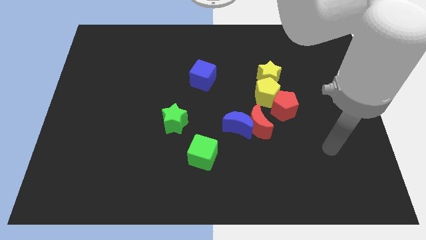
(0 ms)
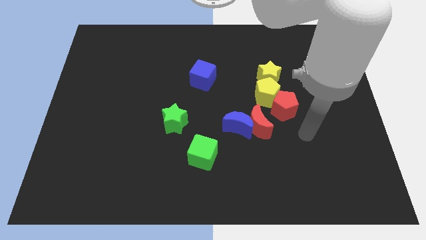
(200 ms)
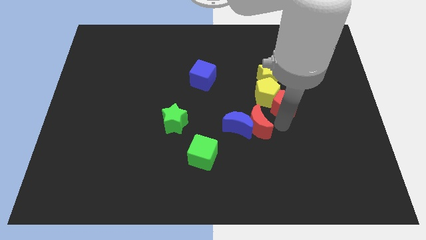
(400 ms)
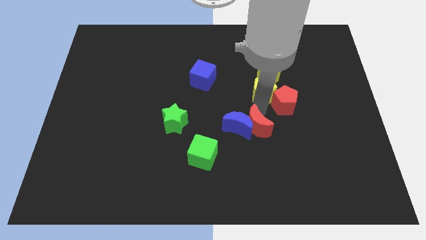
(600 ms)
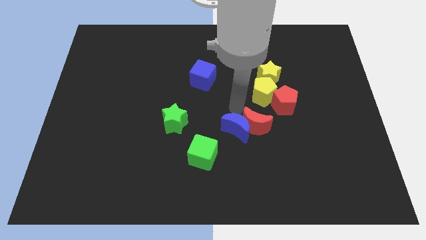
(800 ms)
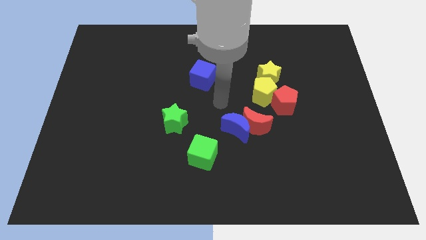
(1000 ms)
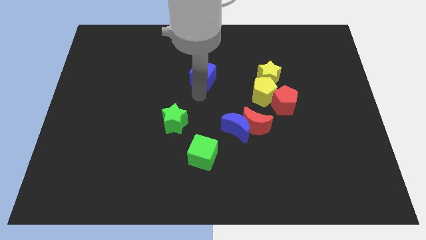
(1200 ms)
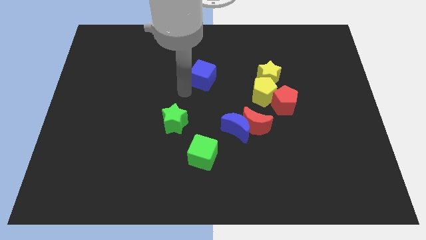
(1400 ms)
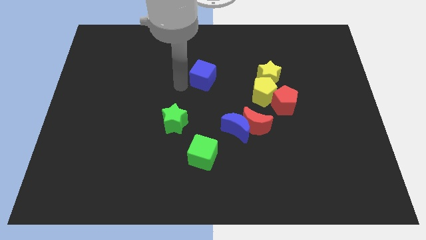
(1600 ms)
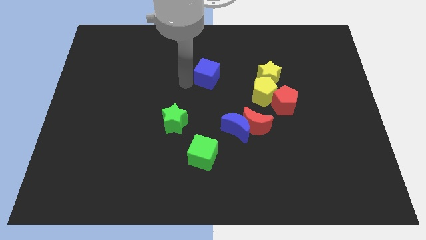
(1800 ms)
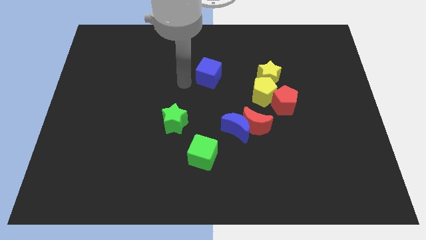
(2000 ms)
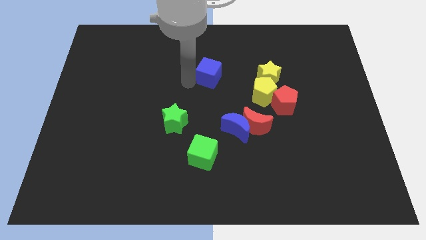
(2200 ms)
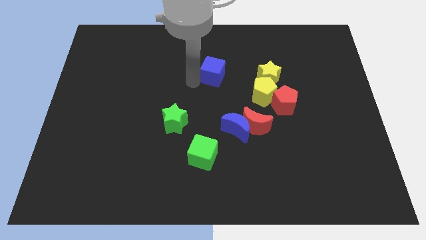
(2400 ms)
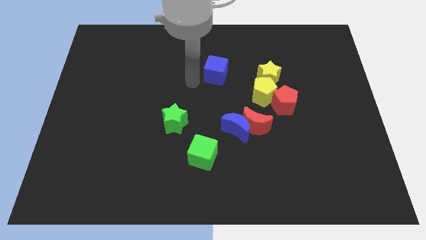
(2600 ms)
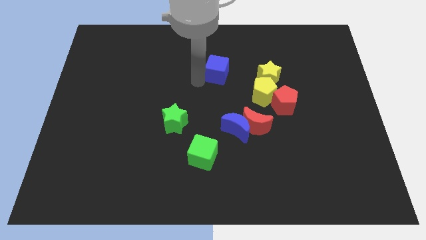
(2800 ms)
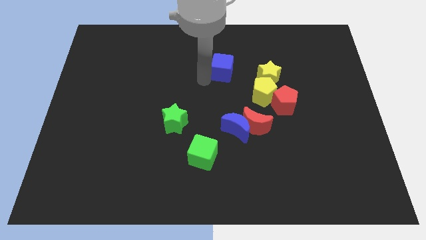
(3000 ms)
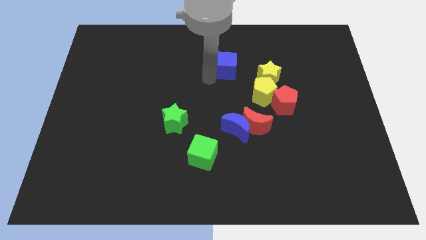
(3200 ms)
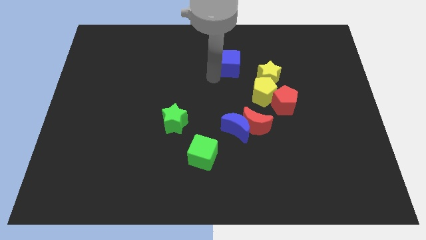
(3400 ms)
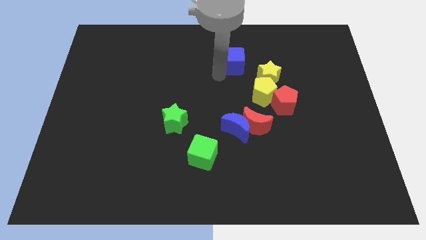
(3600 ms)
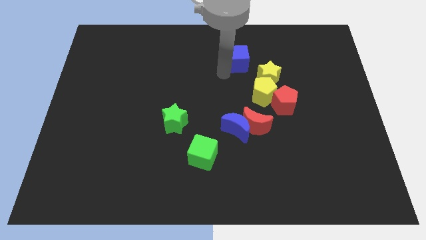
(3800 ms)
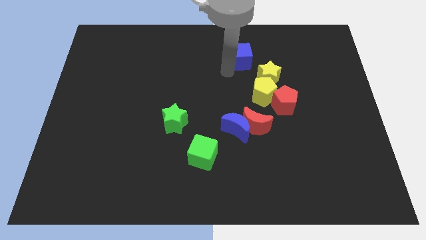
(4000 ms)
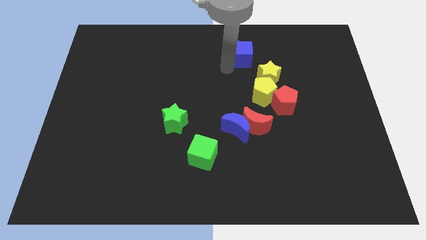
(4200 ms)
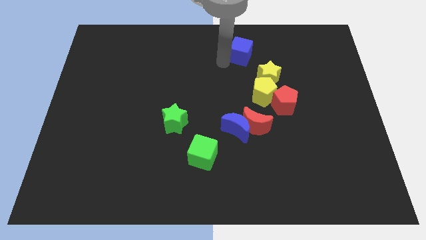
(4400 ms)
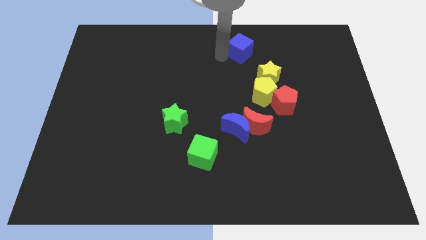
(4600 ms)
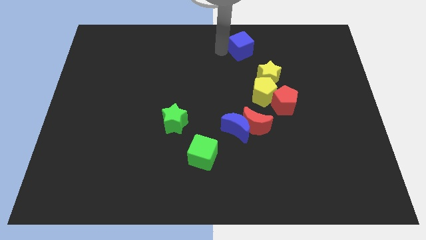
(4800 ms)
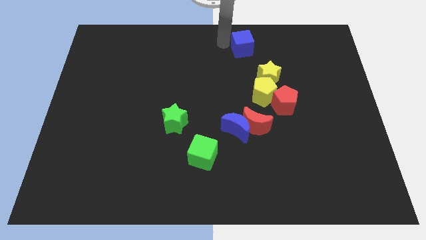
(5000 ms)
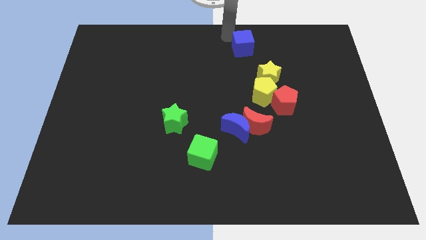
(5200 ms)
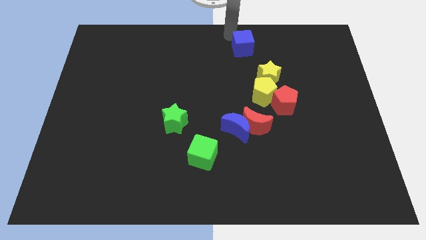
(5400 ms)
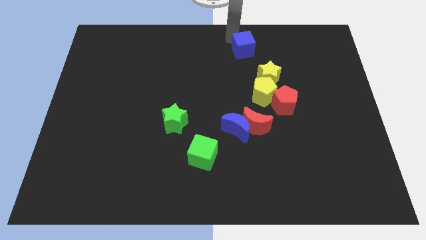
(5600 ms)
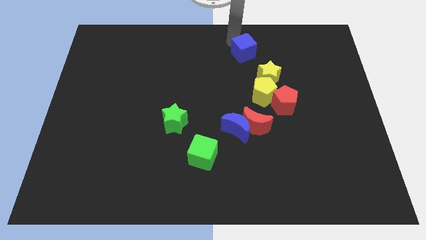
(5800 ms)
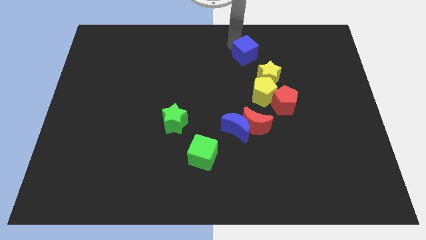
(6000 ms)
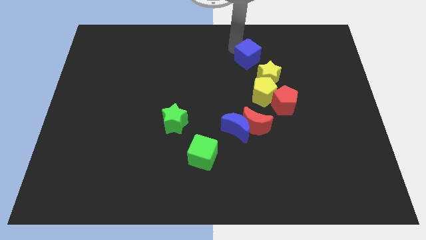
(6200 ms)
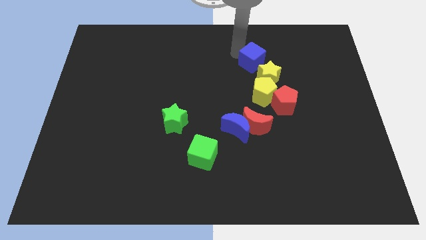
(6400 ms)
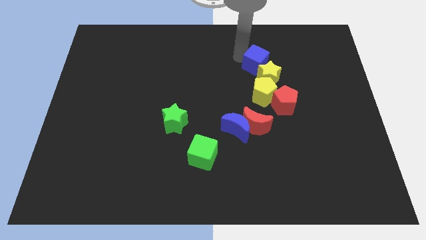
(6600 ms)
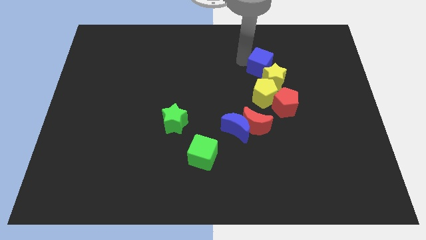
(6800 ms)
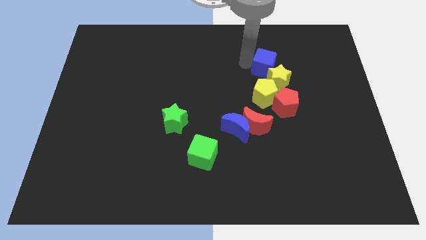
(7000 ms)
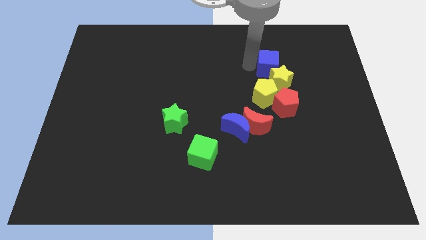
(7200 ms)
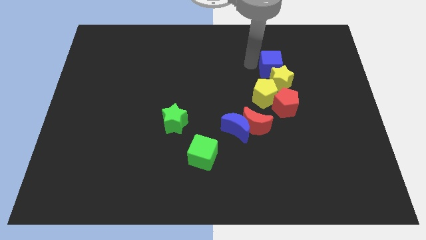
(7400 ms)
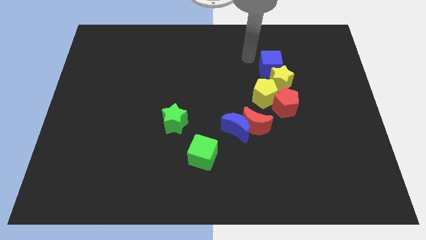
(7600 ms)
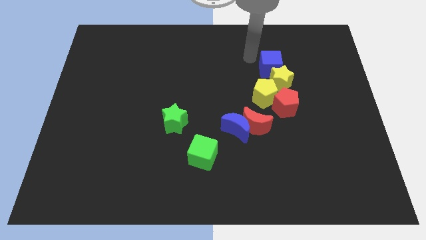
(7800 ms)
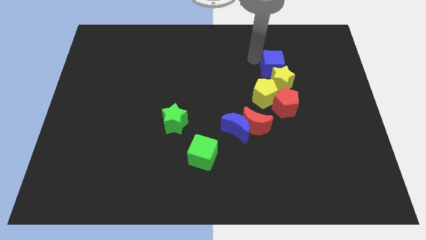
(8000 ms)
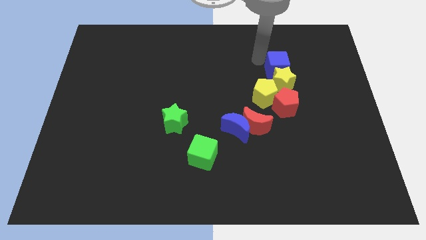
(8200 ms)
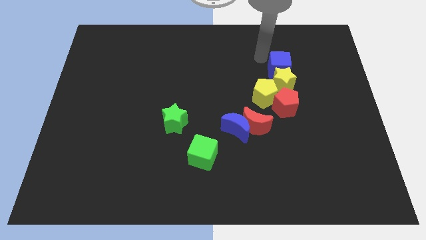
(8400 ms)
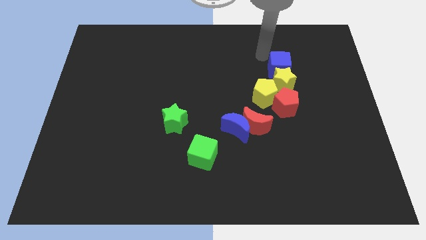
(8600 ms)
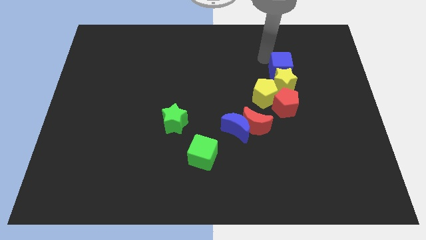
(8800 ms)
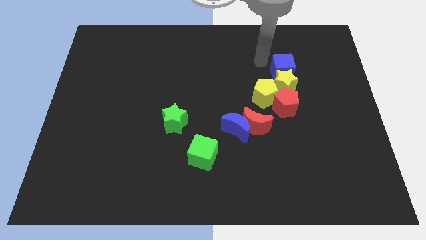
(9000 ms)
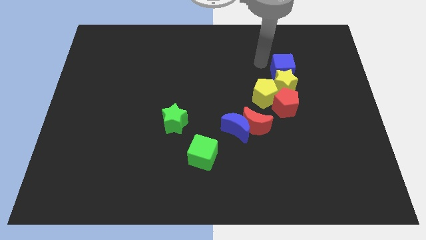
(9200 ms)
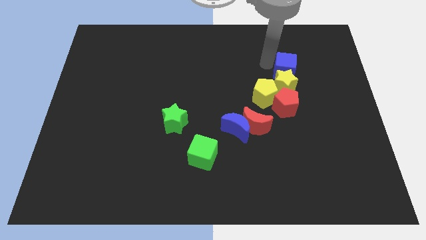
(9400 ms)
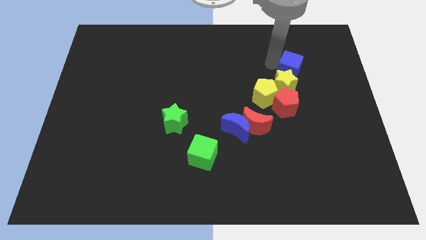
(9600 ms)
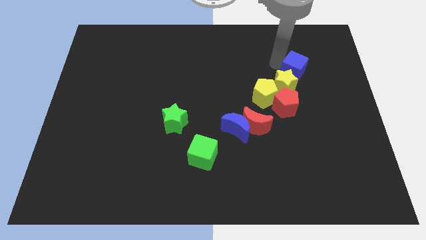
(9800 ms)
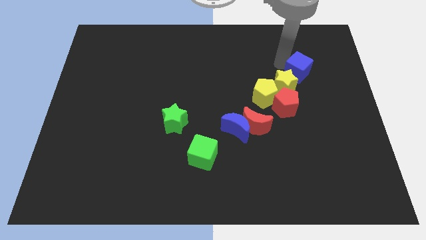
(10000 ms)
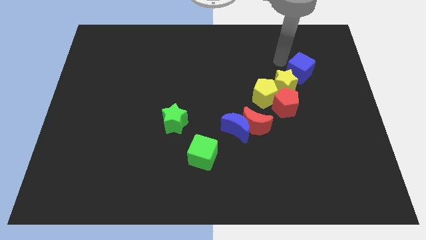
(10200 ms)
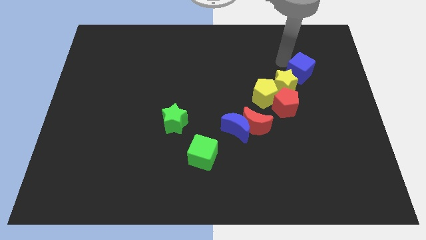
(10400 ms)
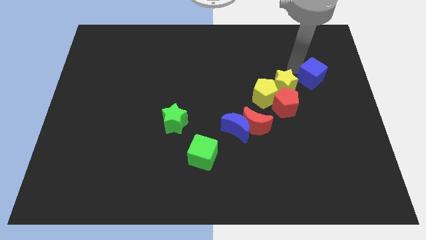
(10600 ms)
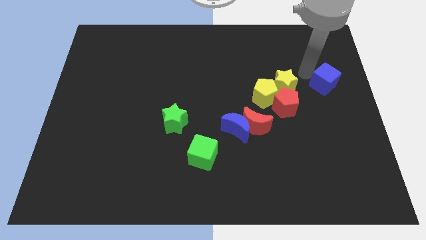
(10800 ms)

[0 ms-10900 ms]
push the blue cube to the right side

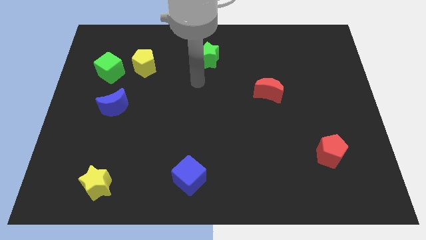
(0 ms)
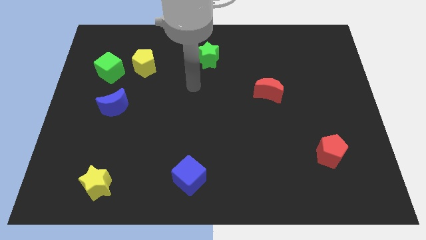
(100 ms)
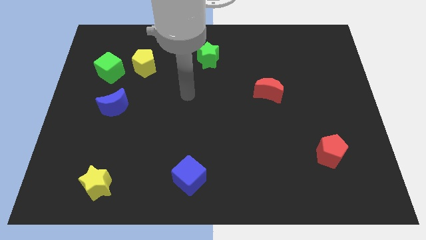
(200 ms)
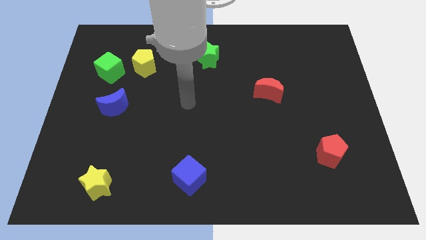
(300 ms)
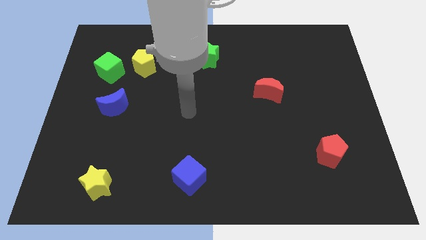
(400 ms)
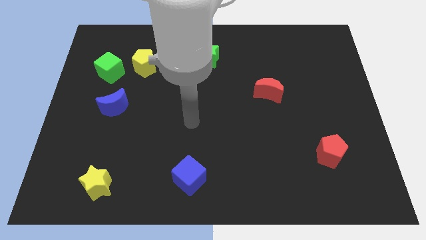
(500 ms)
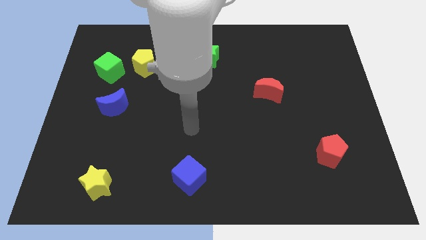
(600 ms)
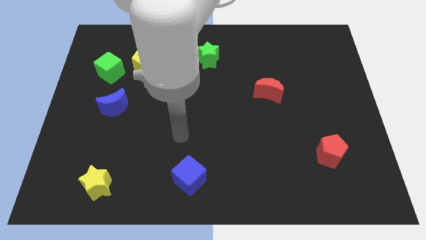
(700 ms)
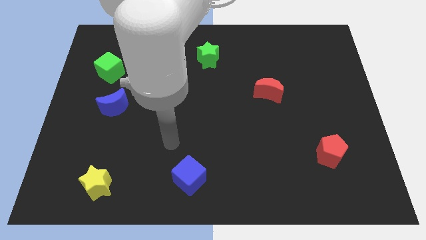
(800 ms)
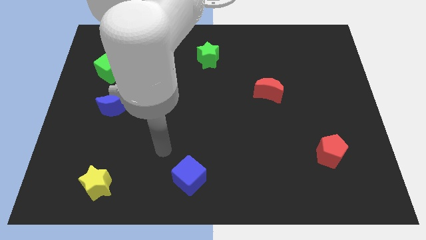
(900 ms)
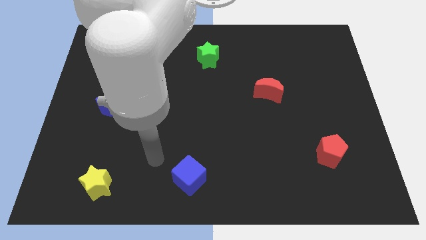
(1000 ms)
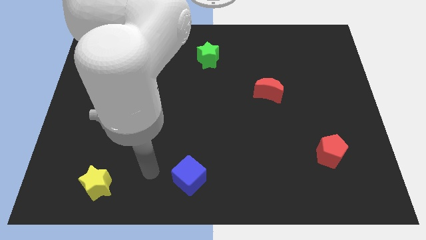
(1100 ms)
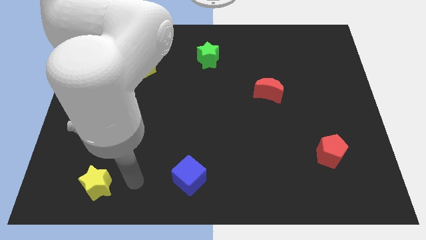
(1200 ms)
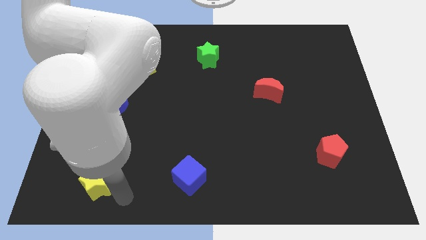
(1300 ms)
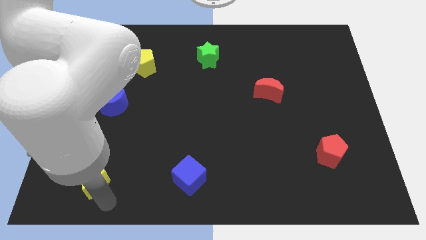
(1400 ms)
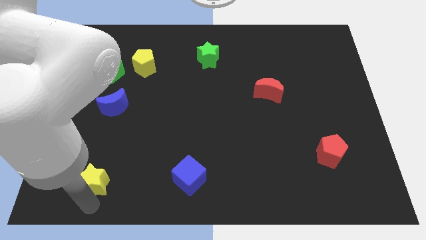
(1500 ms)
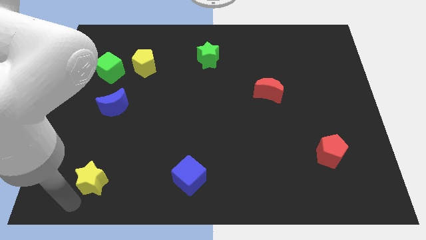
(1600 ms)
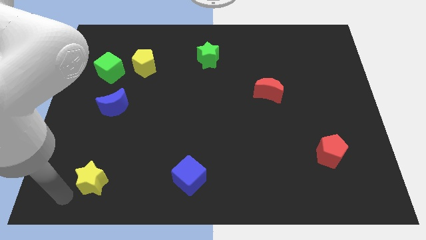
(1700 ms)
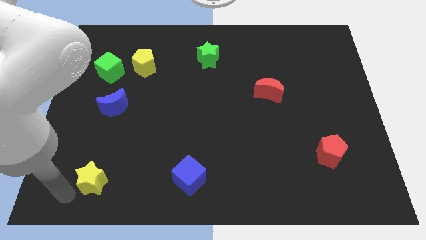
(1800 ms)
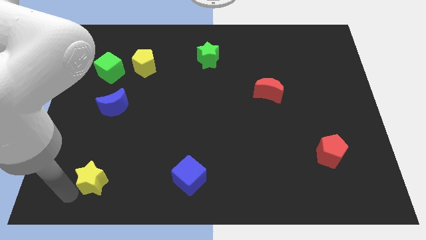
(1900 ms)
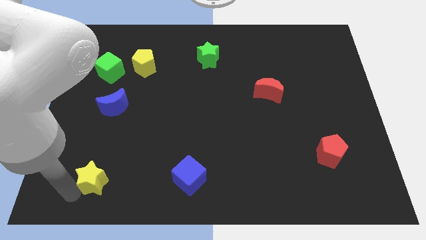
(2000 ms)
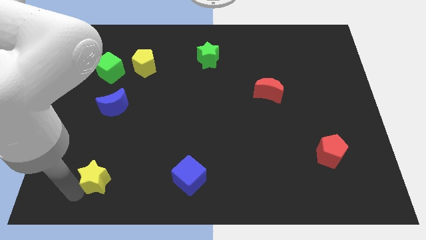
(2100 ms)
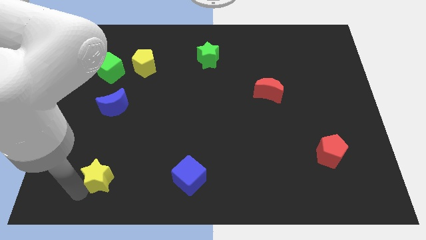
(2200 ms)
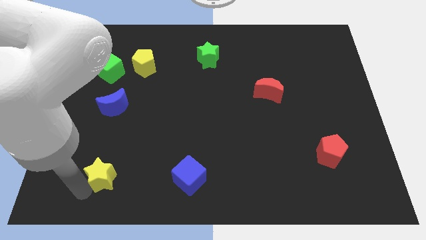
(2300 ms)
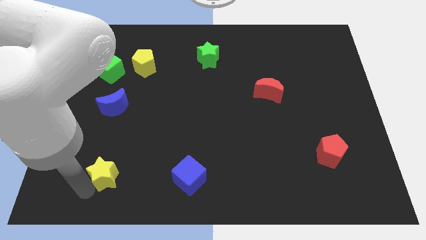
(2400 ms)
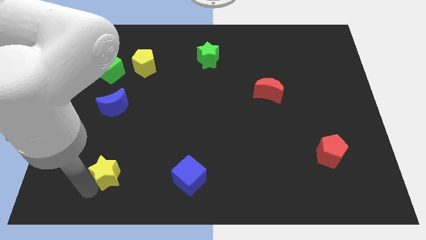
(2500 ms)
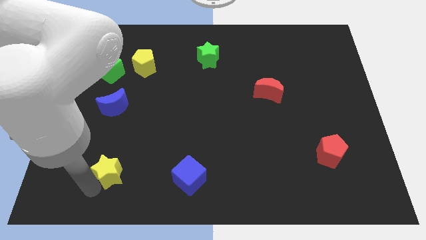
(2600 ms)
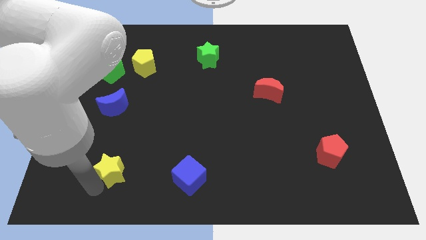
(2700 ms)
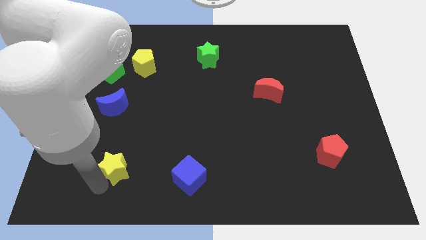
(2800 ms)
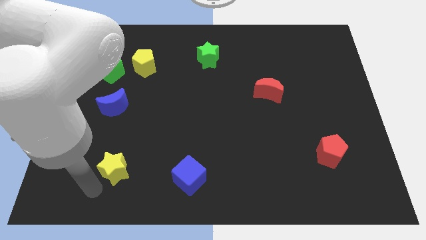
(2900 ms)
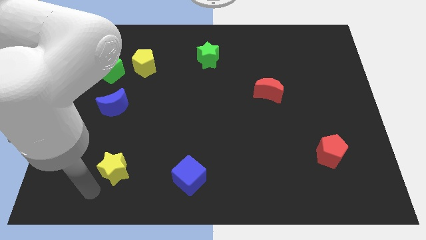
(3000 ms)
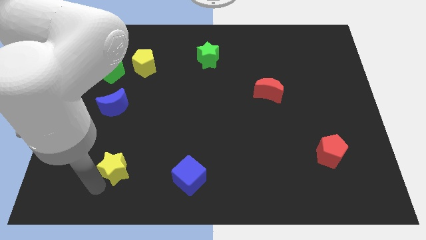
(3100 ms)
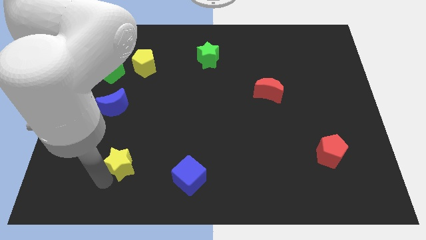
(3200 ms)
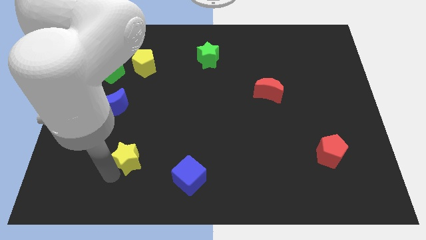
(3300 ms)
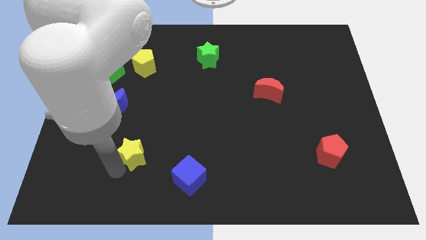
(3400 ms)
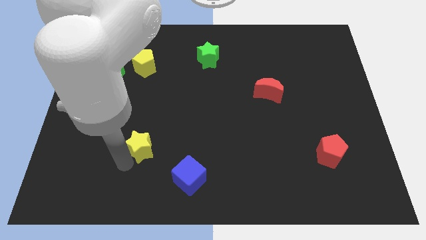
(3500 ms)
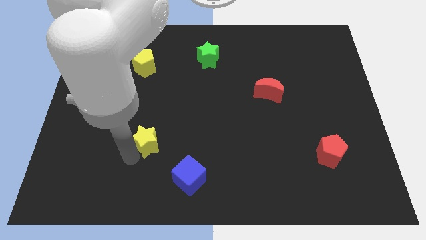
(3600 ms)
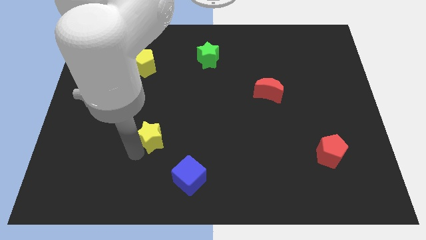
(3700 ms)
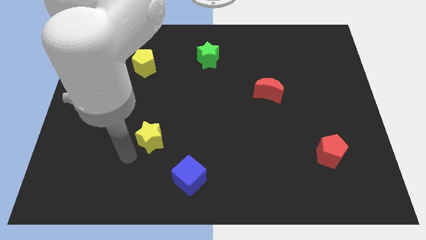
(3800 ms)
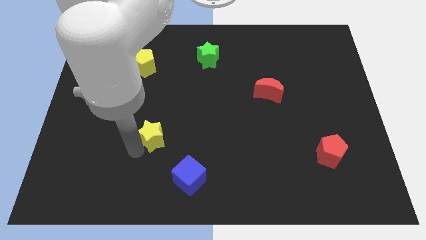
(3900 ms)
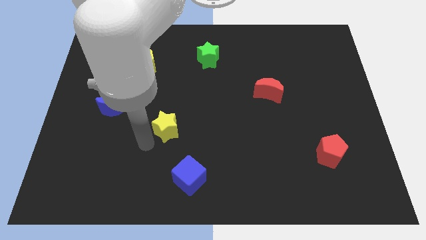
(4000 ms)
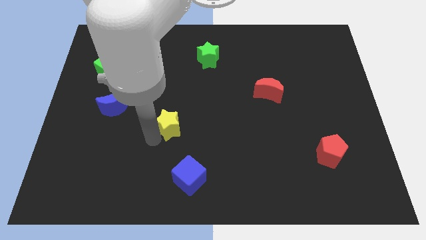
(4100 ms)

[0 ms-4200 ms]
move the yellow star to the middle of the board
